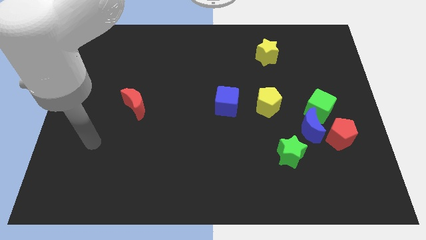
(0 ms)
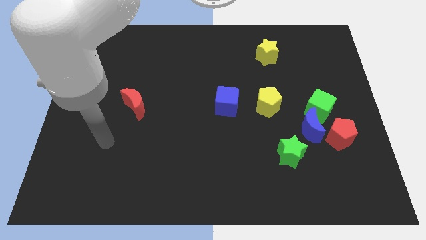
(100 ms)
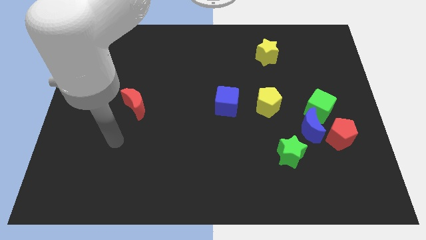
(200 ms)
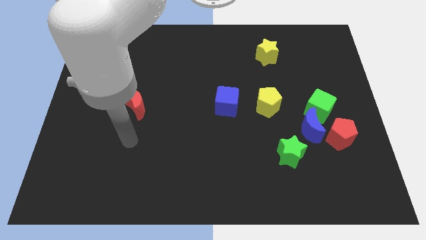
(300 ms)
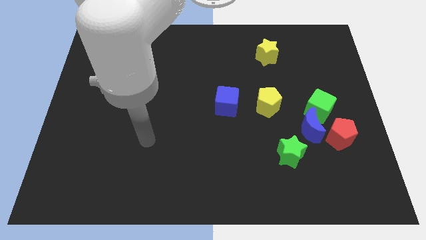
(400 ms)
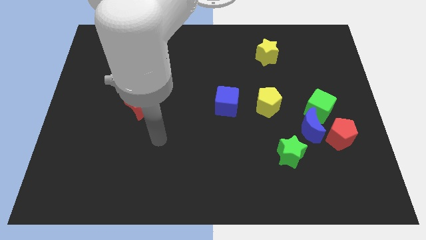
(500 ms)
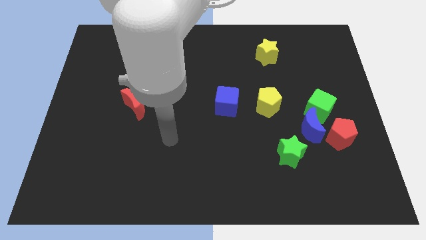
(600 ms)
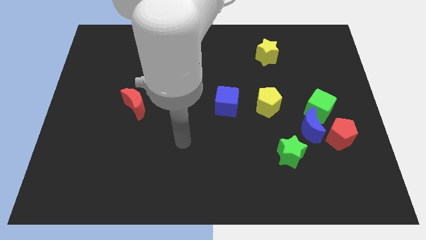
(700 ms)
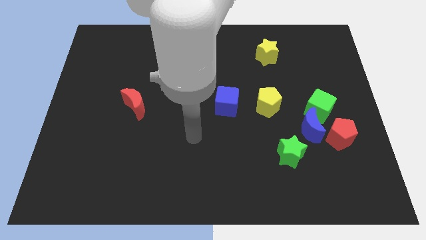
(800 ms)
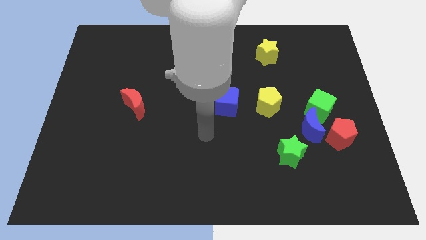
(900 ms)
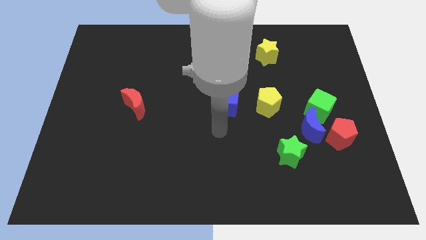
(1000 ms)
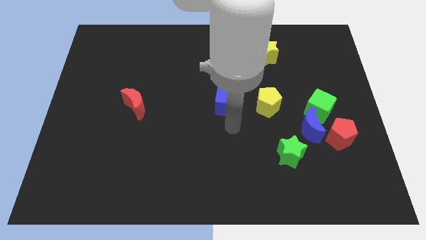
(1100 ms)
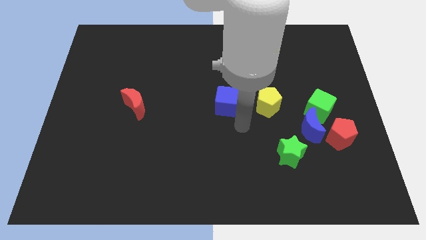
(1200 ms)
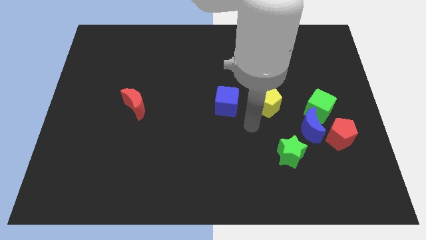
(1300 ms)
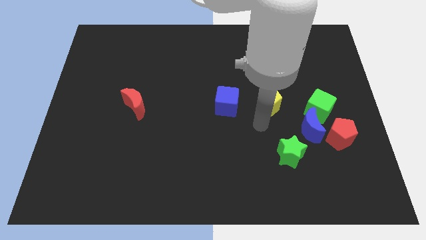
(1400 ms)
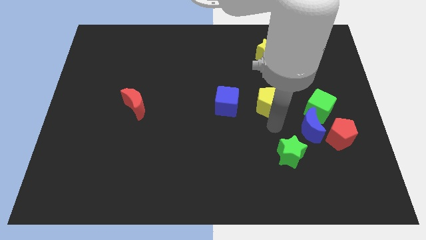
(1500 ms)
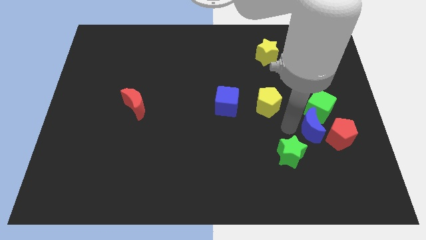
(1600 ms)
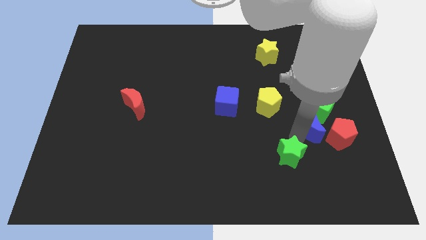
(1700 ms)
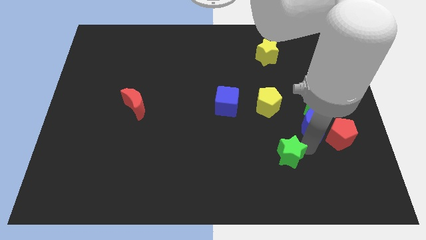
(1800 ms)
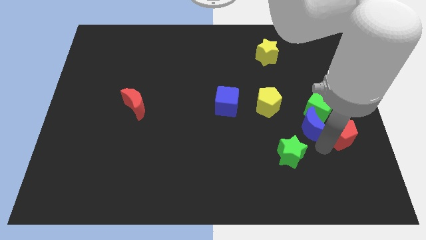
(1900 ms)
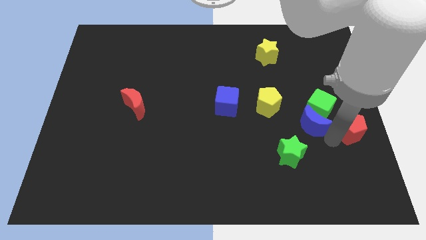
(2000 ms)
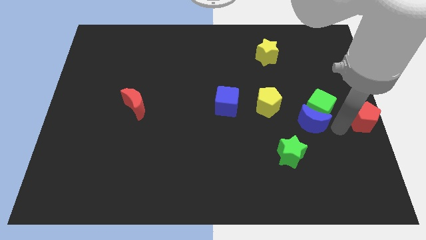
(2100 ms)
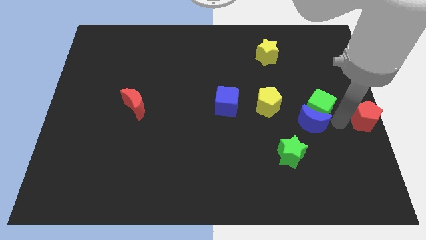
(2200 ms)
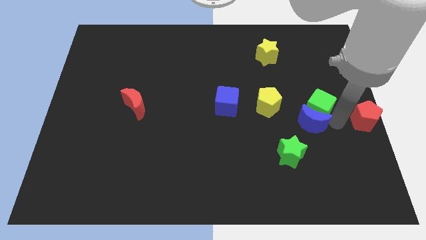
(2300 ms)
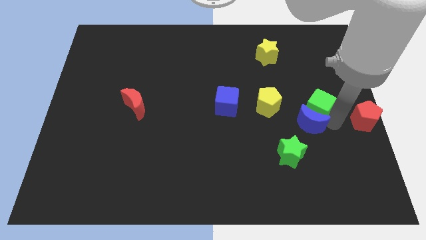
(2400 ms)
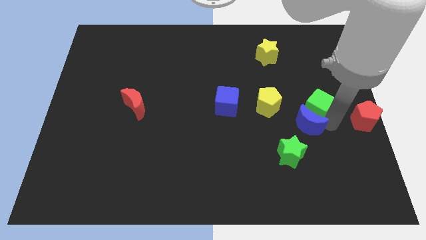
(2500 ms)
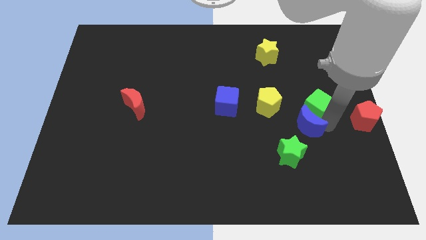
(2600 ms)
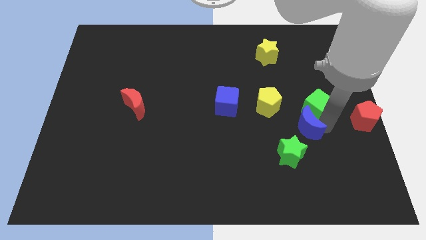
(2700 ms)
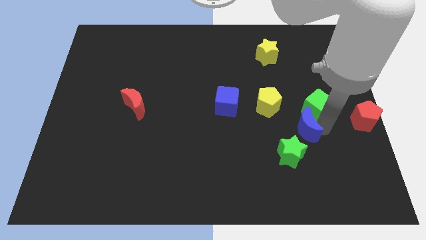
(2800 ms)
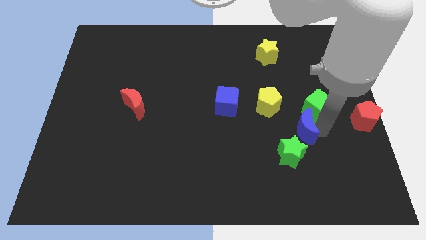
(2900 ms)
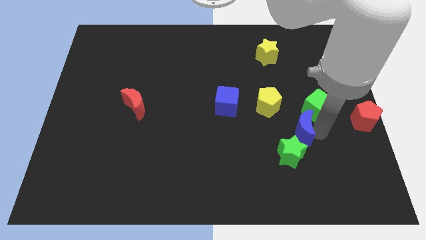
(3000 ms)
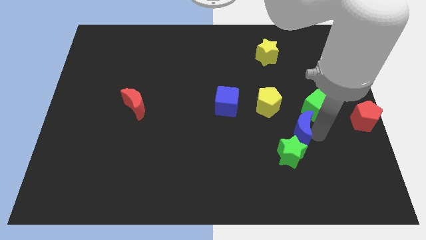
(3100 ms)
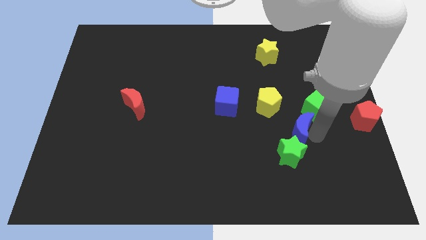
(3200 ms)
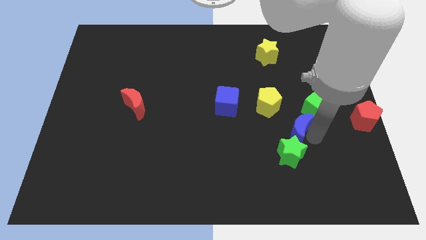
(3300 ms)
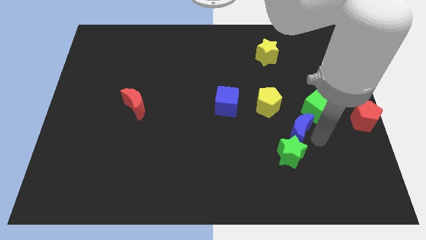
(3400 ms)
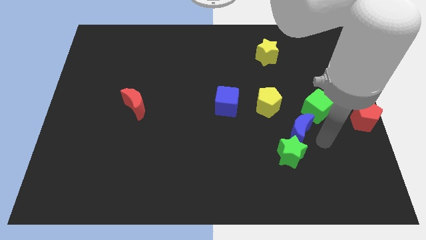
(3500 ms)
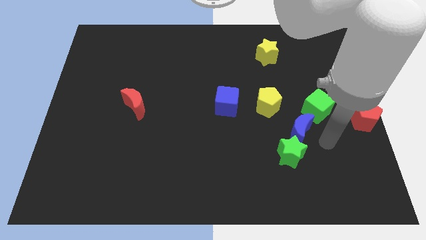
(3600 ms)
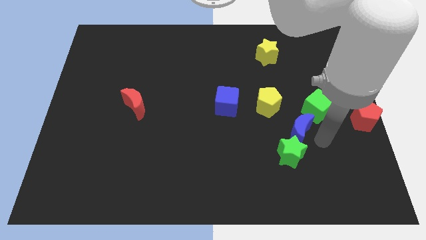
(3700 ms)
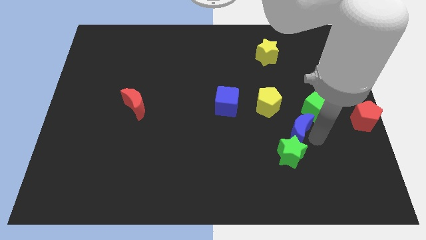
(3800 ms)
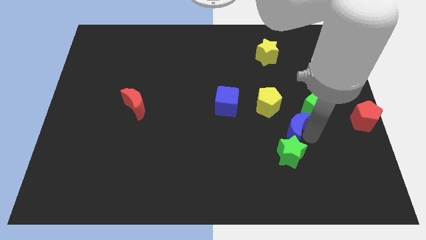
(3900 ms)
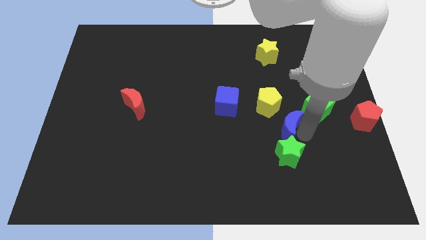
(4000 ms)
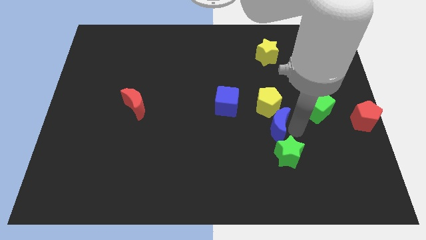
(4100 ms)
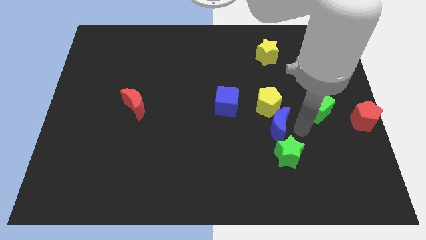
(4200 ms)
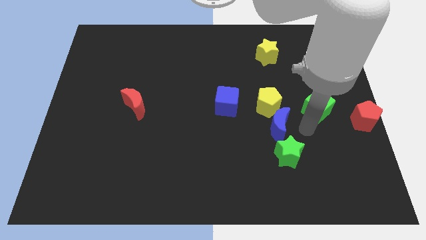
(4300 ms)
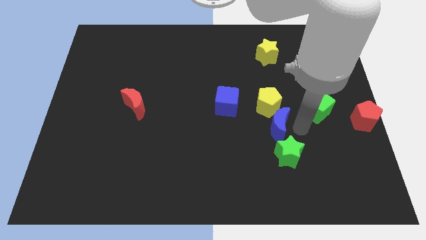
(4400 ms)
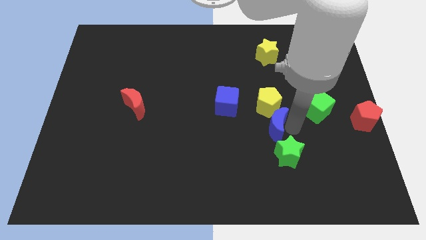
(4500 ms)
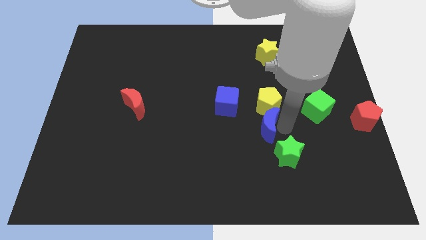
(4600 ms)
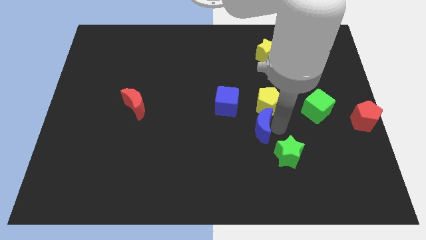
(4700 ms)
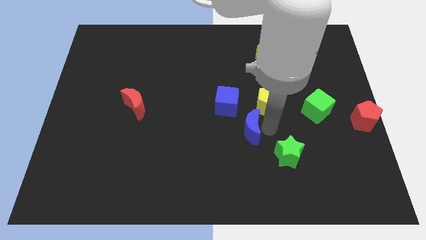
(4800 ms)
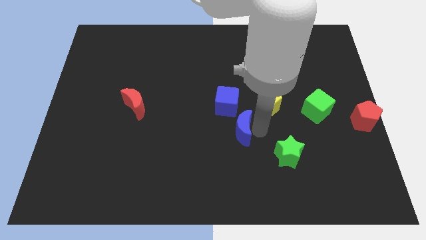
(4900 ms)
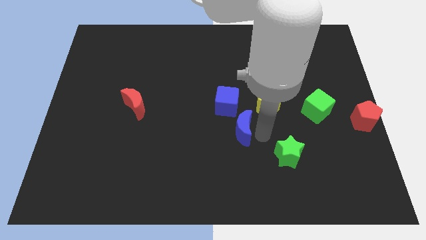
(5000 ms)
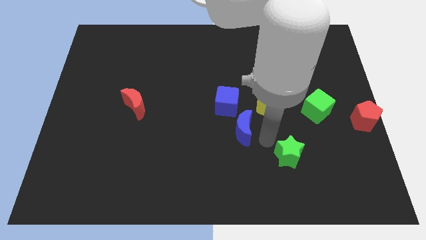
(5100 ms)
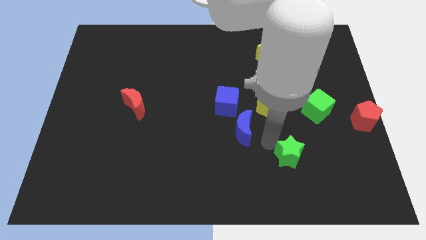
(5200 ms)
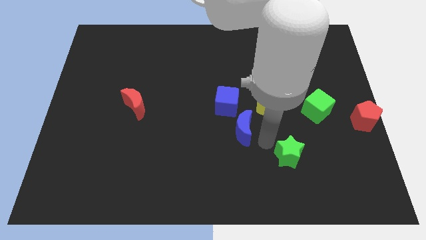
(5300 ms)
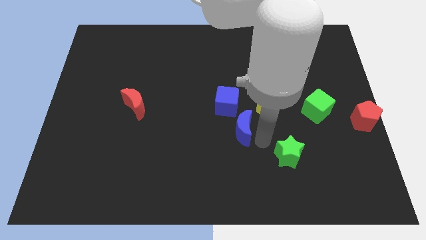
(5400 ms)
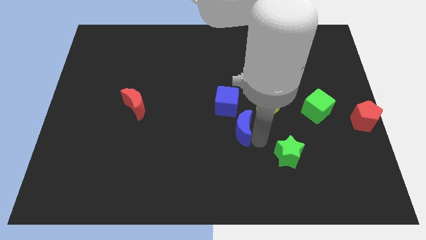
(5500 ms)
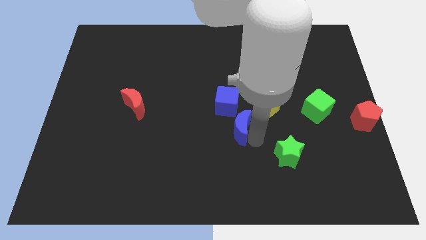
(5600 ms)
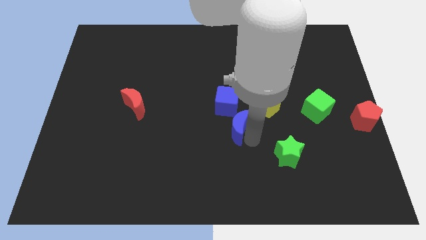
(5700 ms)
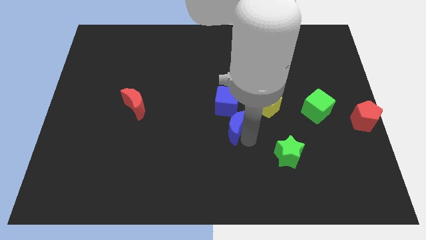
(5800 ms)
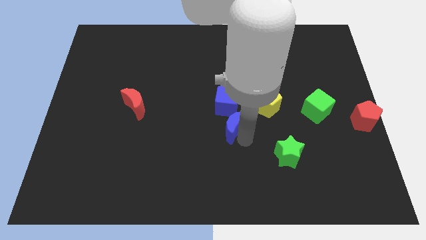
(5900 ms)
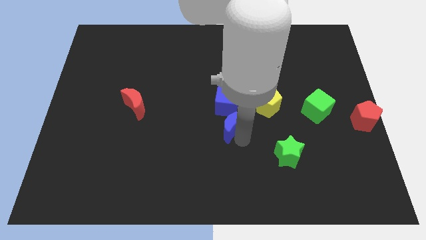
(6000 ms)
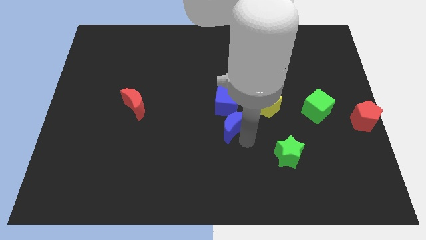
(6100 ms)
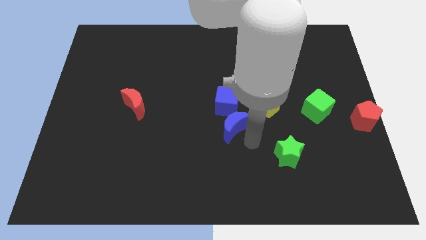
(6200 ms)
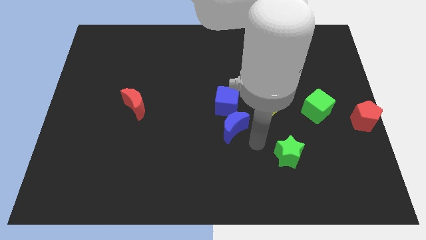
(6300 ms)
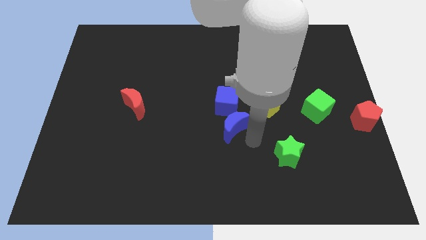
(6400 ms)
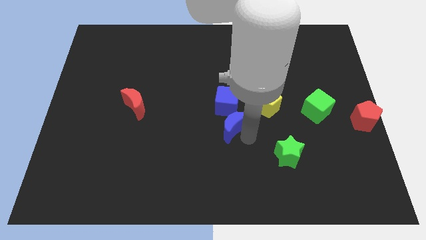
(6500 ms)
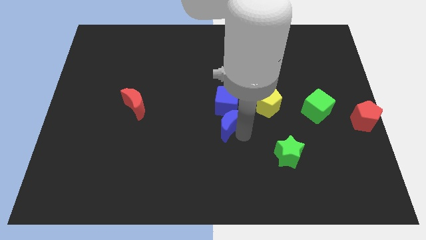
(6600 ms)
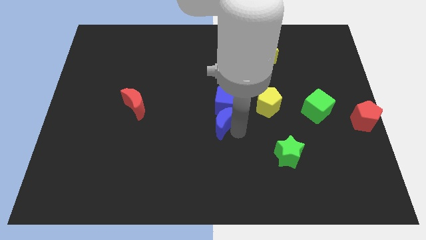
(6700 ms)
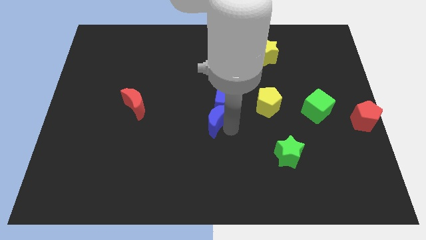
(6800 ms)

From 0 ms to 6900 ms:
put the blue moon just left of the yellow pentagon
